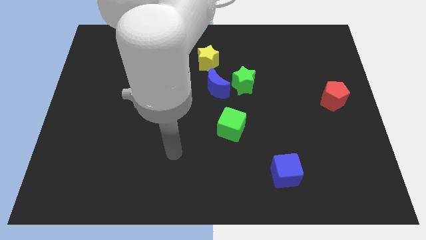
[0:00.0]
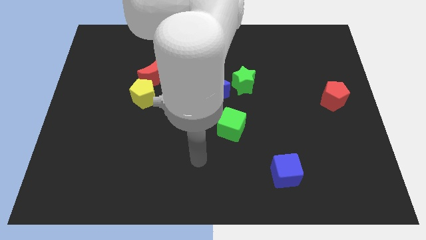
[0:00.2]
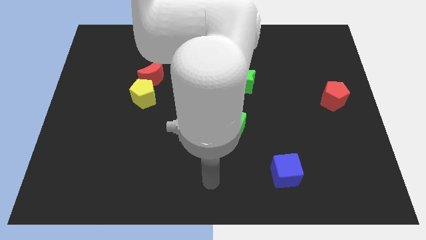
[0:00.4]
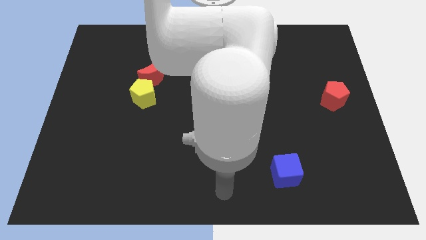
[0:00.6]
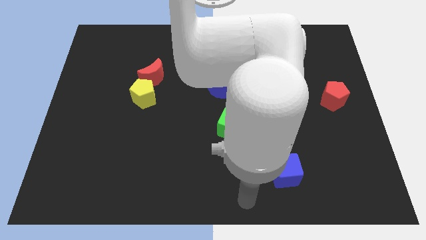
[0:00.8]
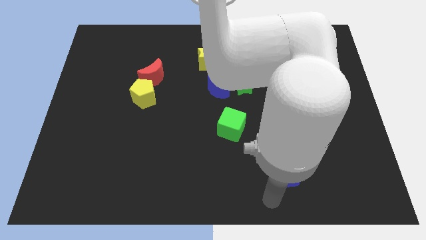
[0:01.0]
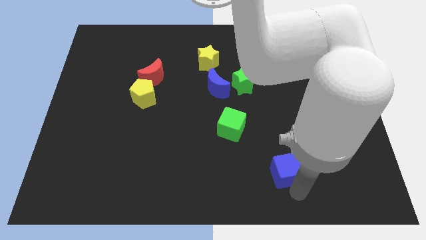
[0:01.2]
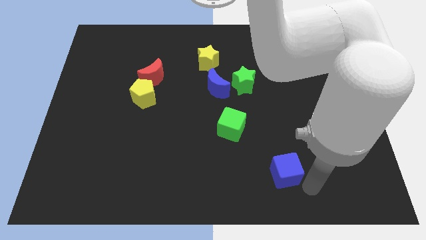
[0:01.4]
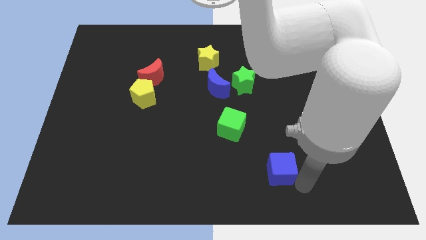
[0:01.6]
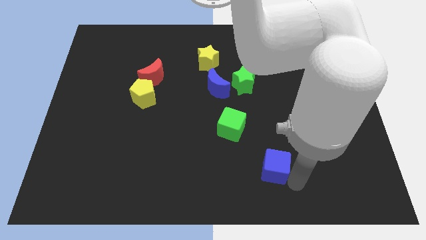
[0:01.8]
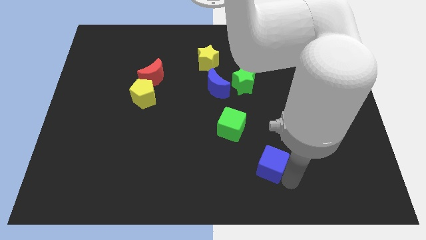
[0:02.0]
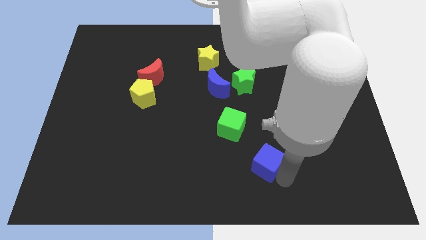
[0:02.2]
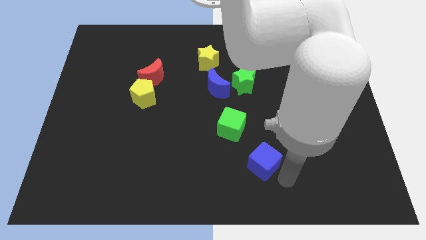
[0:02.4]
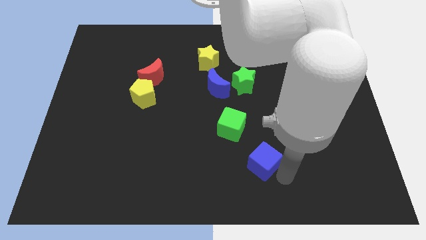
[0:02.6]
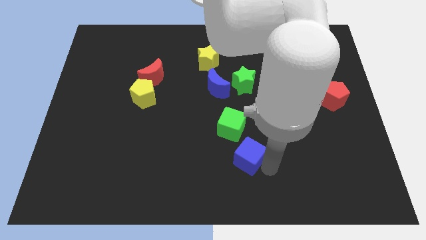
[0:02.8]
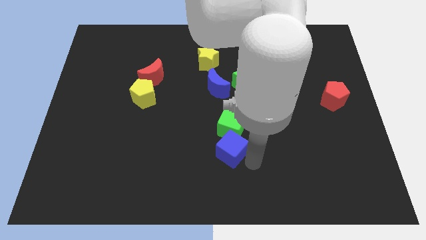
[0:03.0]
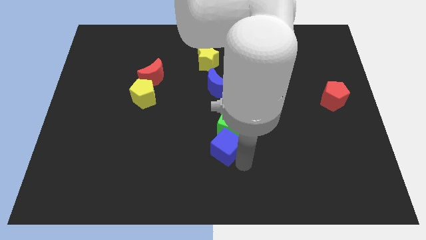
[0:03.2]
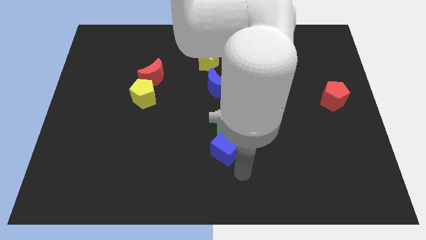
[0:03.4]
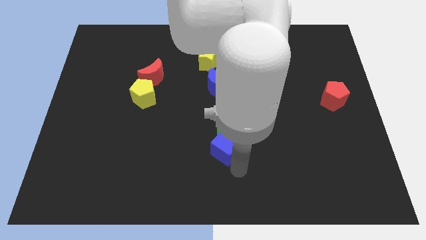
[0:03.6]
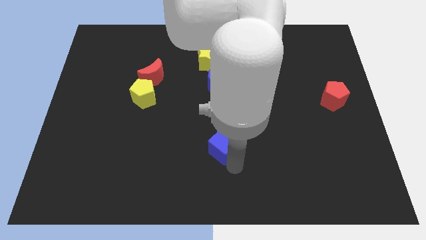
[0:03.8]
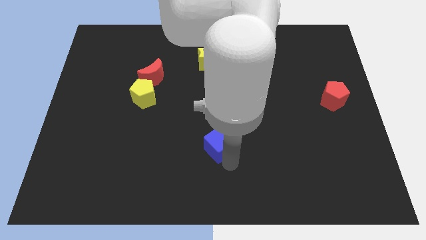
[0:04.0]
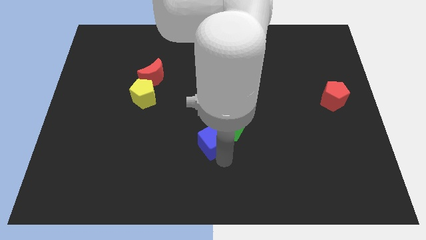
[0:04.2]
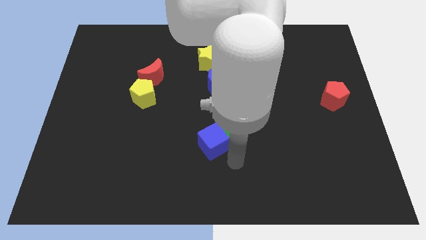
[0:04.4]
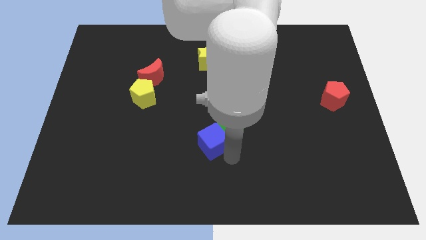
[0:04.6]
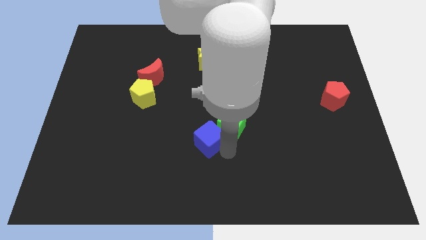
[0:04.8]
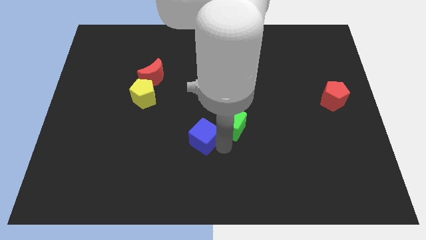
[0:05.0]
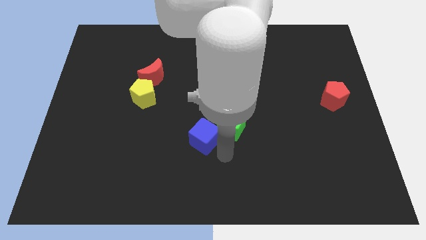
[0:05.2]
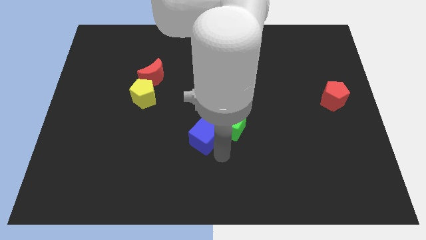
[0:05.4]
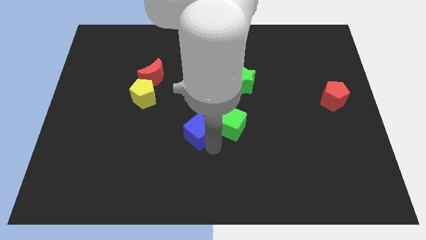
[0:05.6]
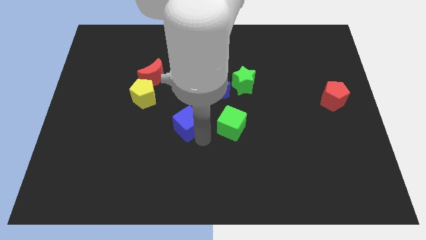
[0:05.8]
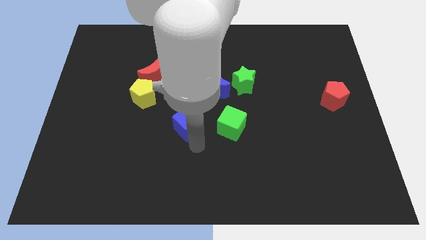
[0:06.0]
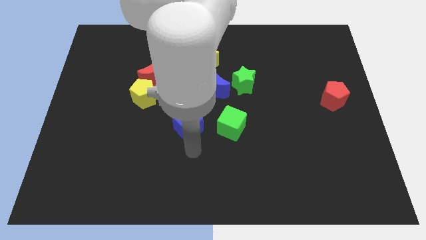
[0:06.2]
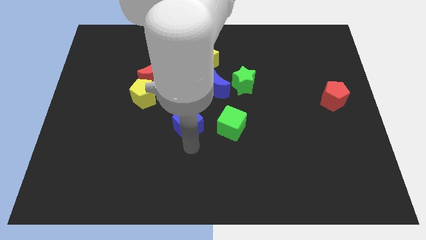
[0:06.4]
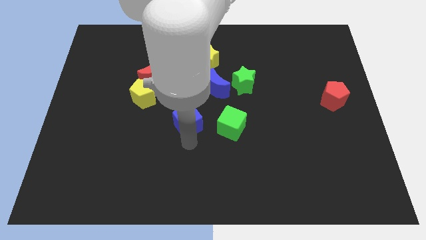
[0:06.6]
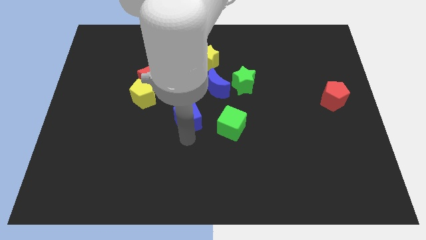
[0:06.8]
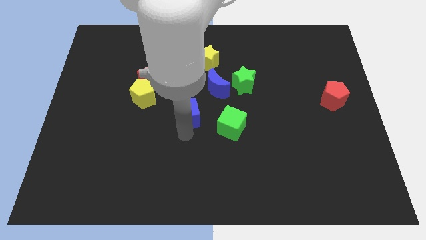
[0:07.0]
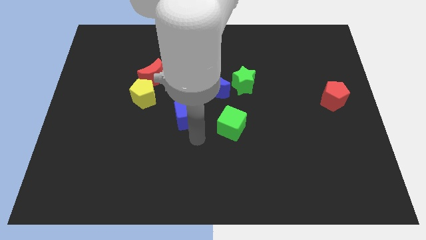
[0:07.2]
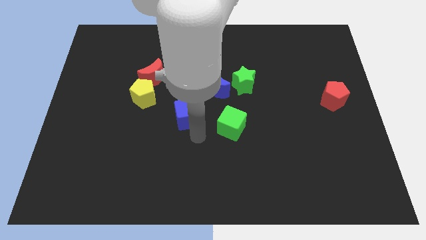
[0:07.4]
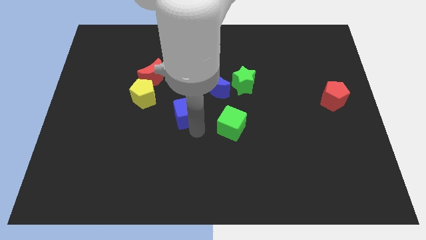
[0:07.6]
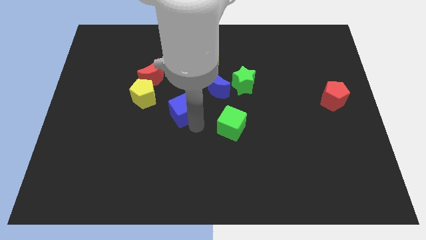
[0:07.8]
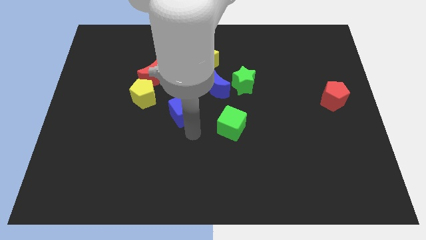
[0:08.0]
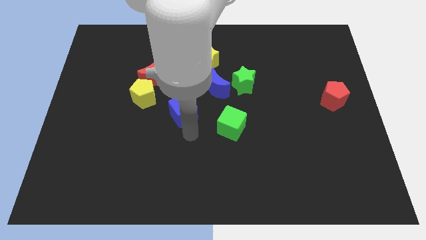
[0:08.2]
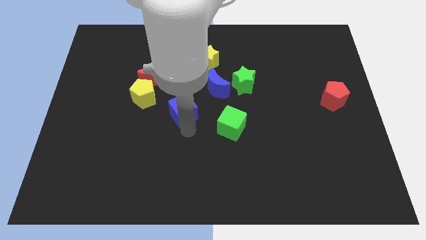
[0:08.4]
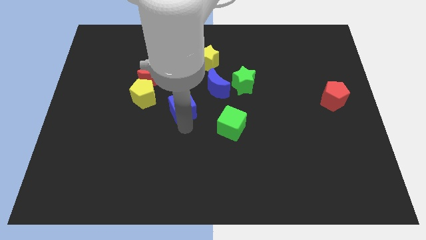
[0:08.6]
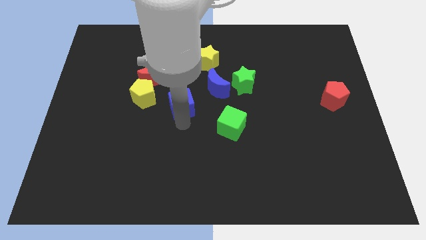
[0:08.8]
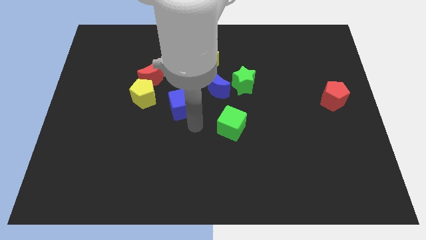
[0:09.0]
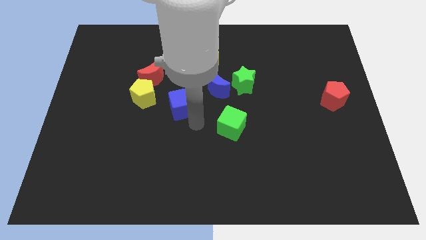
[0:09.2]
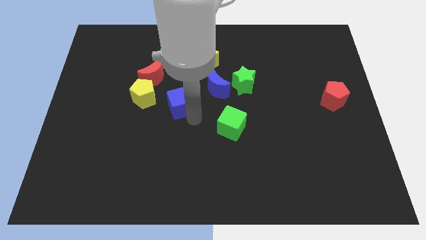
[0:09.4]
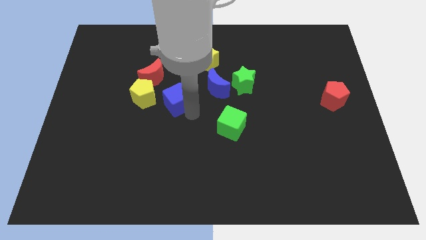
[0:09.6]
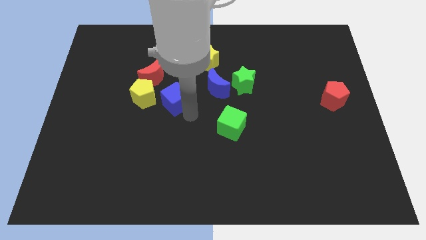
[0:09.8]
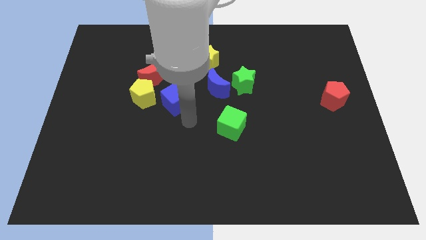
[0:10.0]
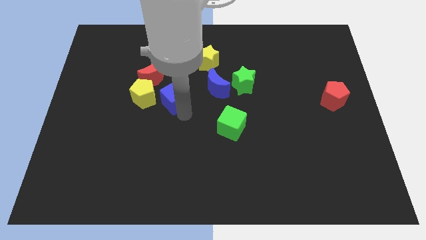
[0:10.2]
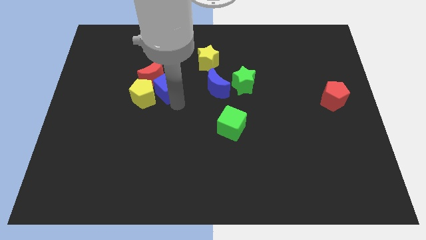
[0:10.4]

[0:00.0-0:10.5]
slide the blue cube close to the red moon

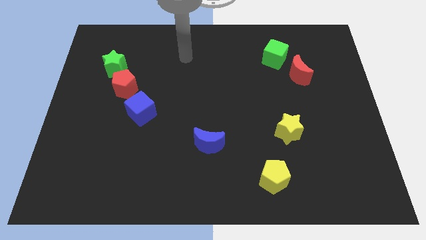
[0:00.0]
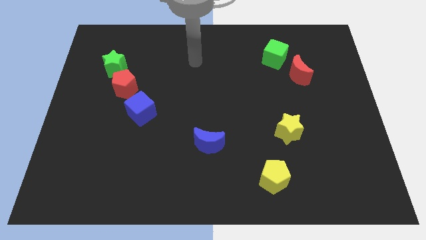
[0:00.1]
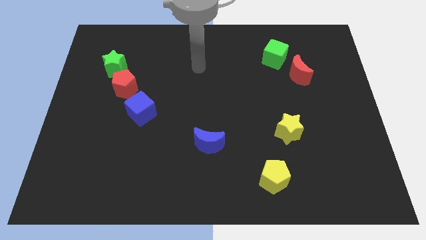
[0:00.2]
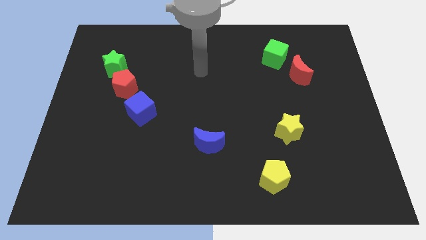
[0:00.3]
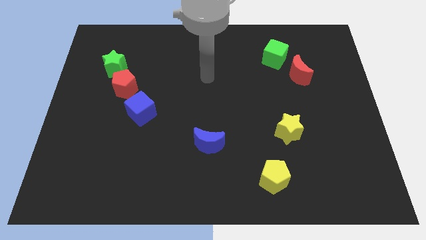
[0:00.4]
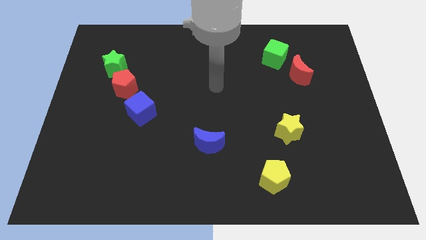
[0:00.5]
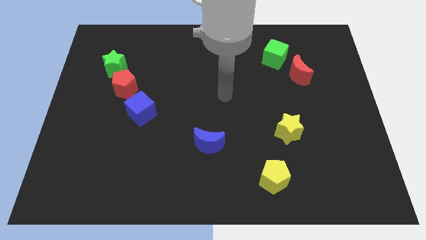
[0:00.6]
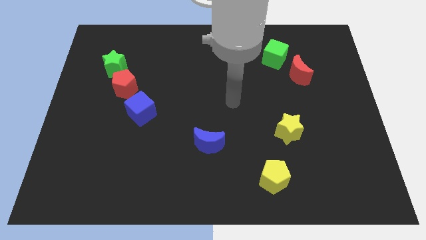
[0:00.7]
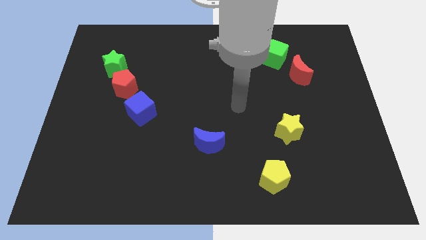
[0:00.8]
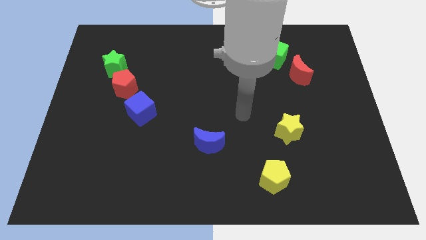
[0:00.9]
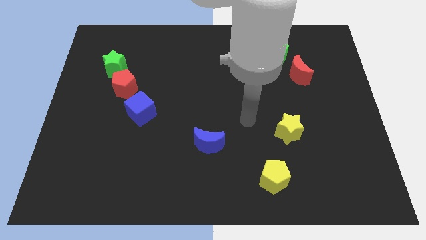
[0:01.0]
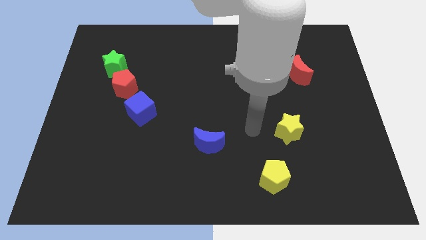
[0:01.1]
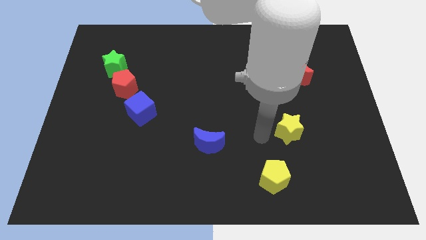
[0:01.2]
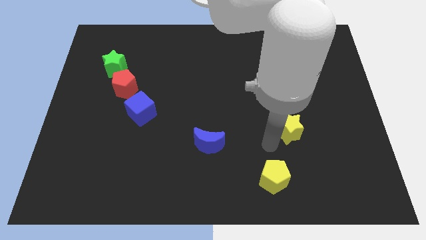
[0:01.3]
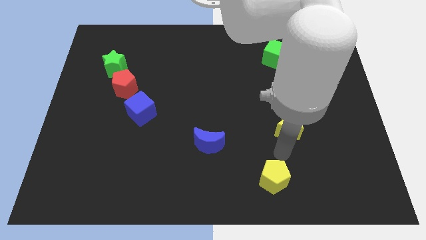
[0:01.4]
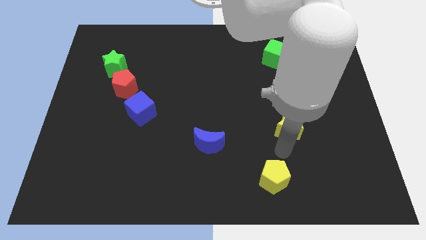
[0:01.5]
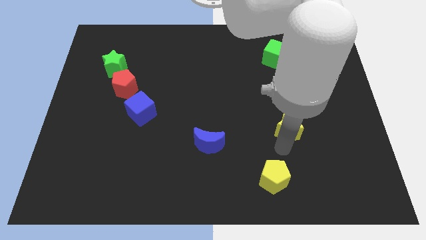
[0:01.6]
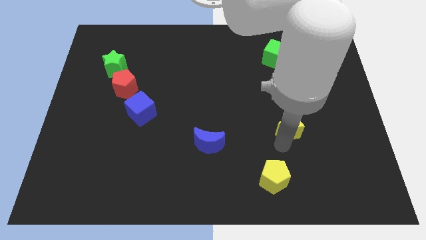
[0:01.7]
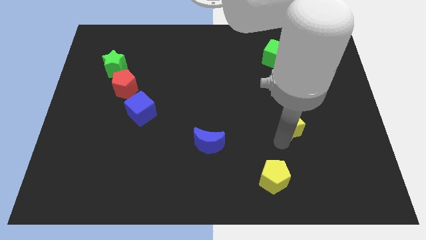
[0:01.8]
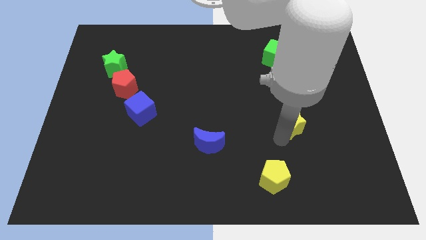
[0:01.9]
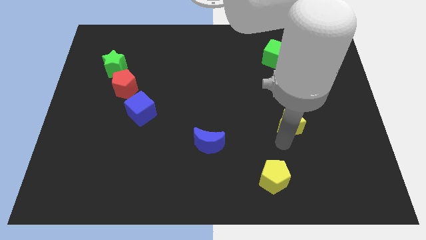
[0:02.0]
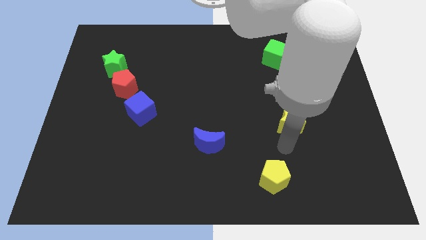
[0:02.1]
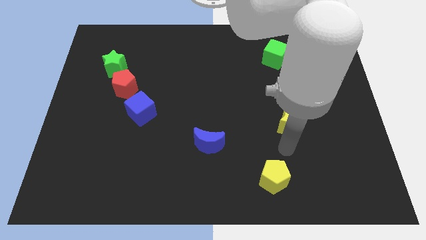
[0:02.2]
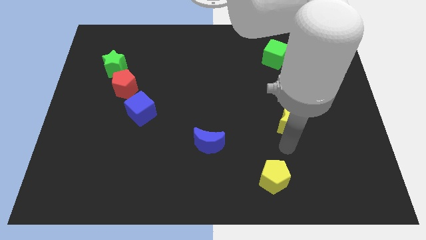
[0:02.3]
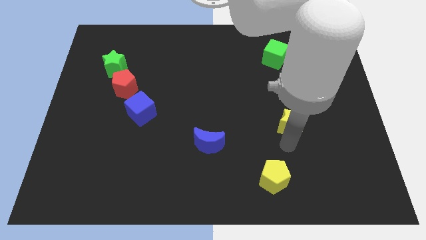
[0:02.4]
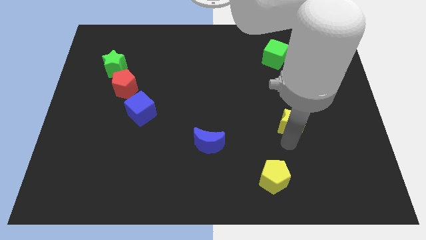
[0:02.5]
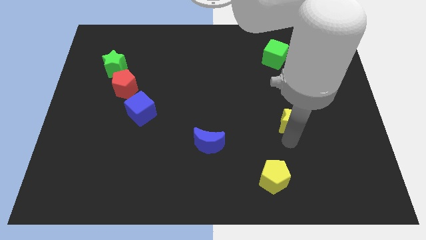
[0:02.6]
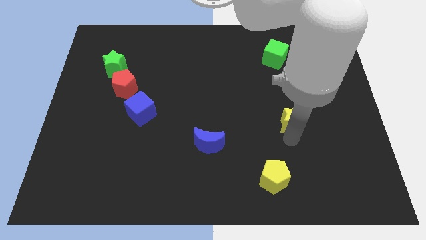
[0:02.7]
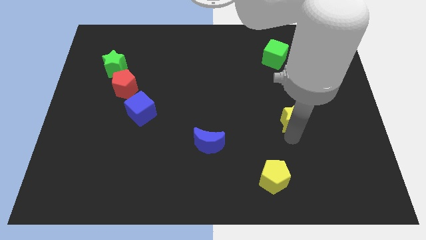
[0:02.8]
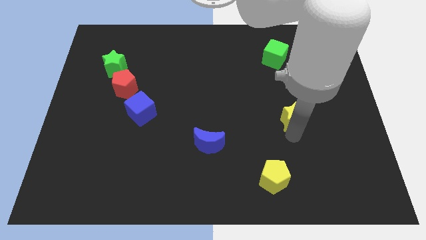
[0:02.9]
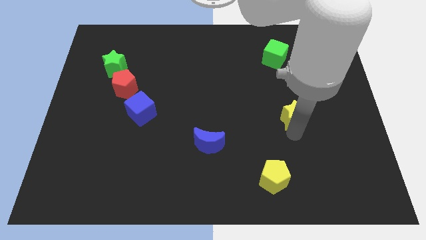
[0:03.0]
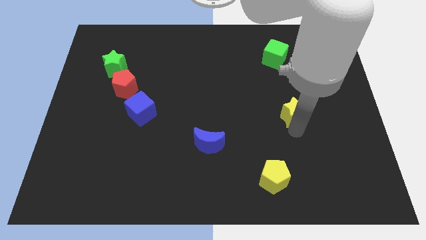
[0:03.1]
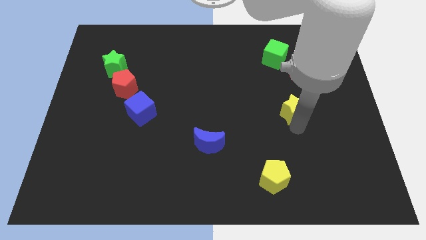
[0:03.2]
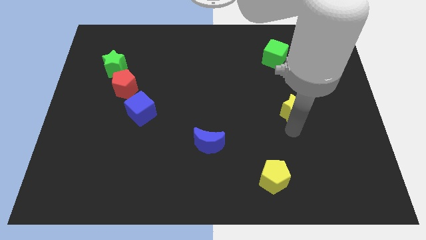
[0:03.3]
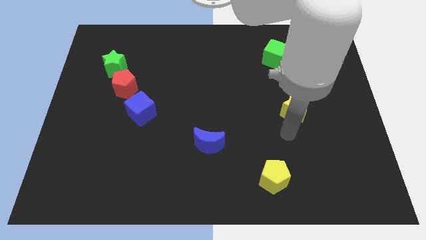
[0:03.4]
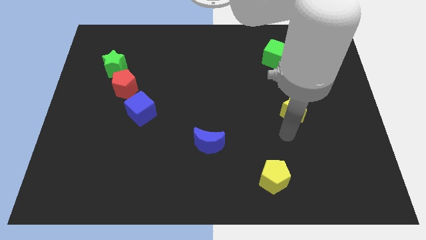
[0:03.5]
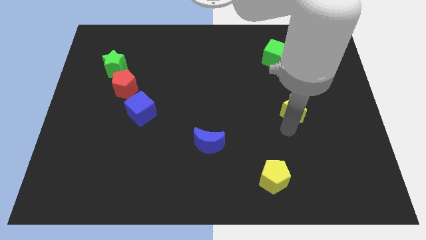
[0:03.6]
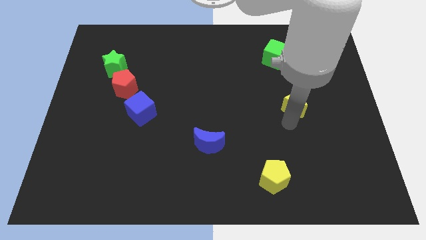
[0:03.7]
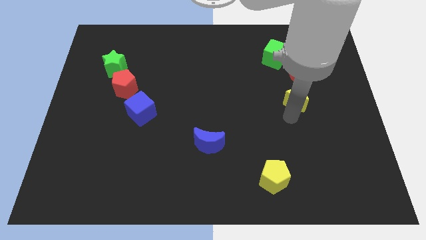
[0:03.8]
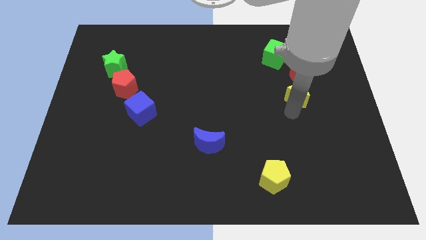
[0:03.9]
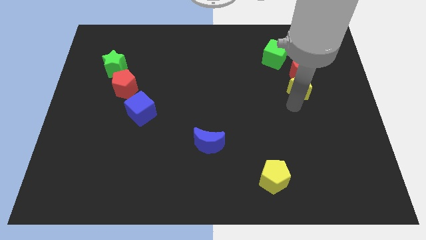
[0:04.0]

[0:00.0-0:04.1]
move the yellow star towards the red moon
